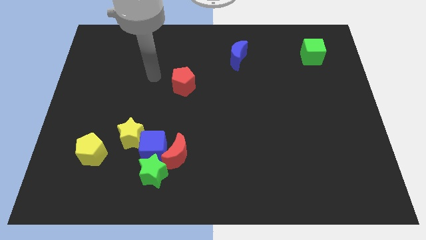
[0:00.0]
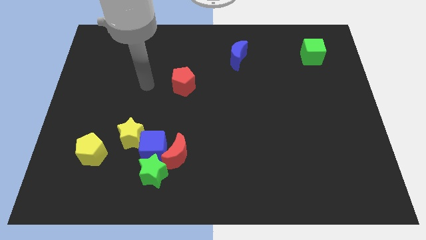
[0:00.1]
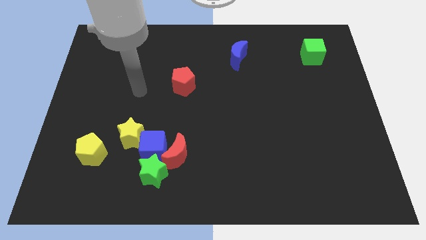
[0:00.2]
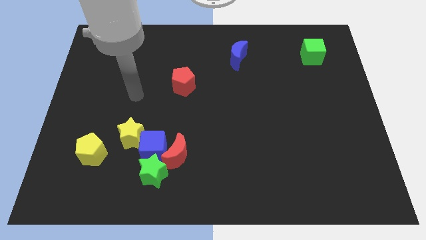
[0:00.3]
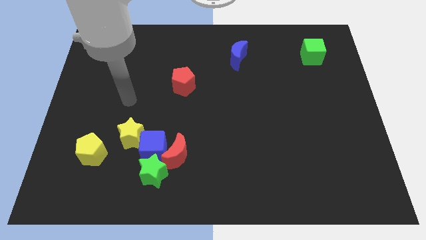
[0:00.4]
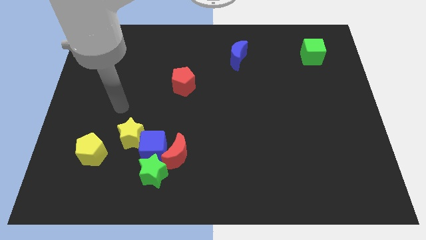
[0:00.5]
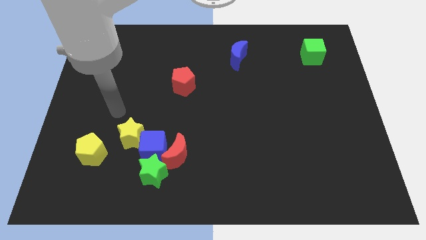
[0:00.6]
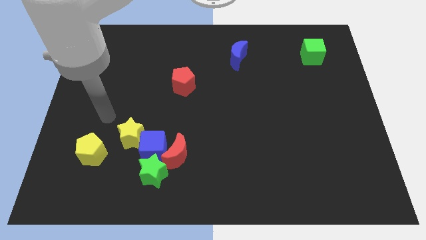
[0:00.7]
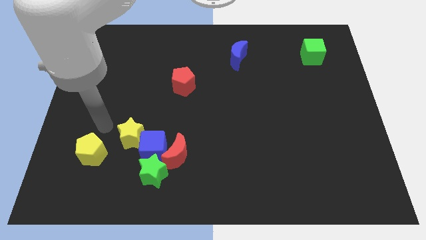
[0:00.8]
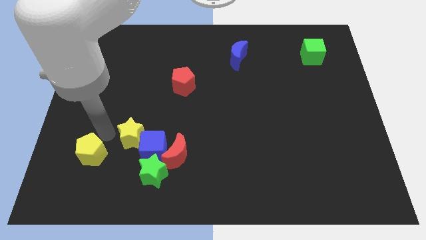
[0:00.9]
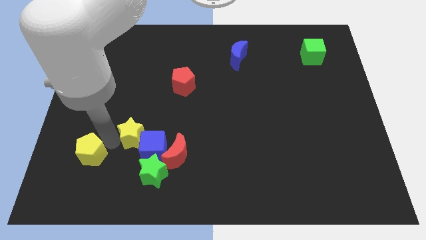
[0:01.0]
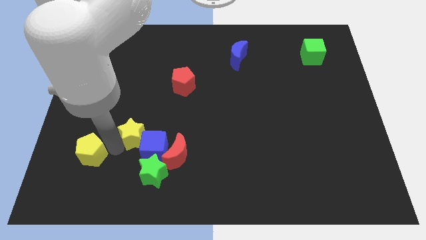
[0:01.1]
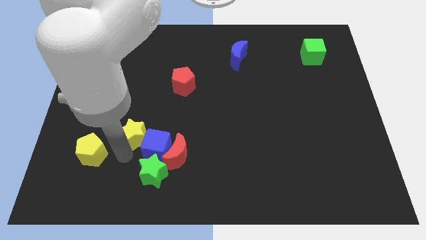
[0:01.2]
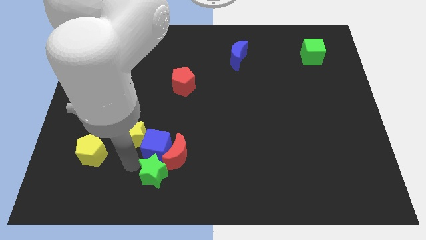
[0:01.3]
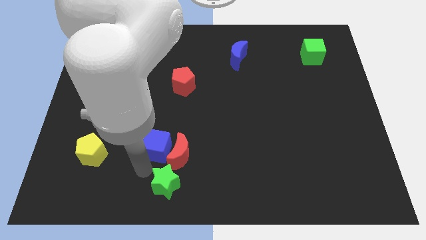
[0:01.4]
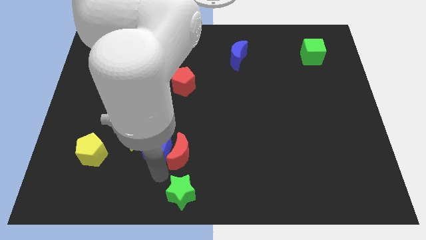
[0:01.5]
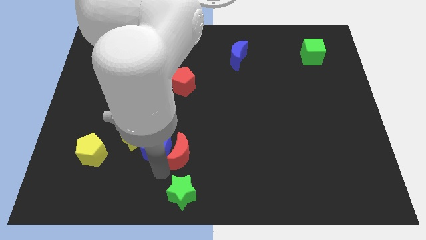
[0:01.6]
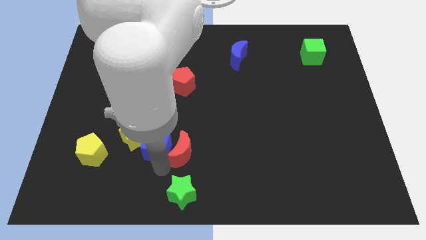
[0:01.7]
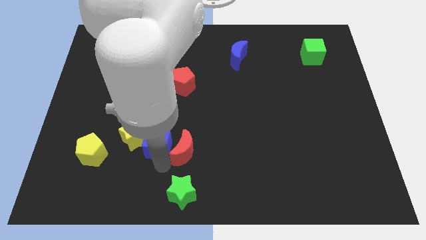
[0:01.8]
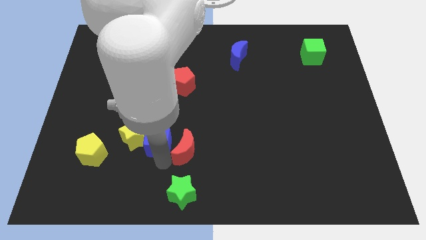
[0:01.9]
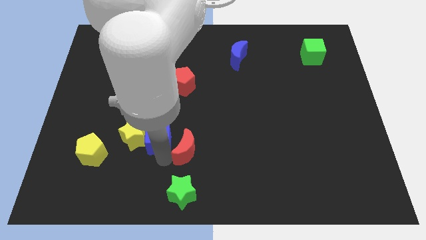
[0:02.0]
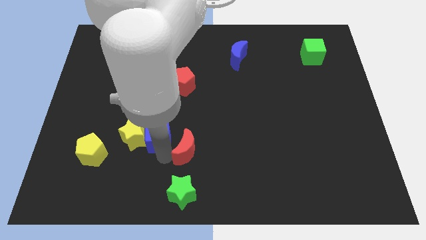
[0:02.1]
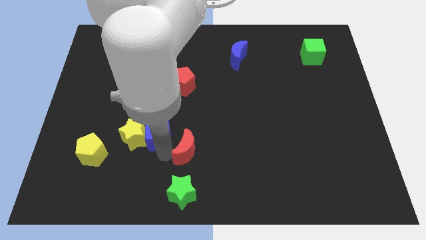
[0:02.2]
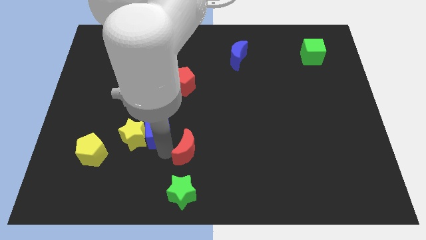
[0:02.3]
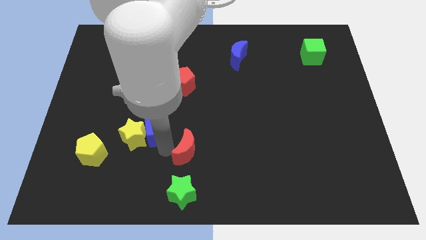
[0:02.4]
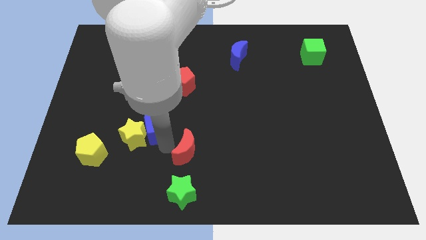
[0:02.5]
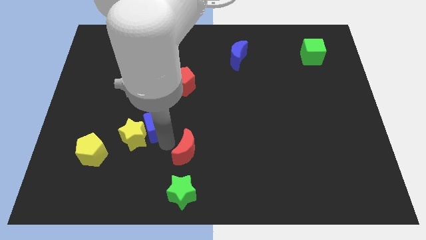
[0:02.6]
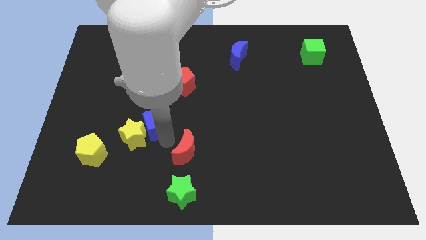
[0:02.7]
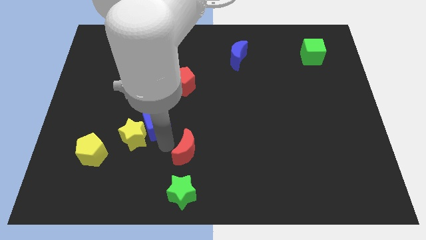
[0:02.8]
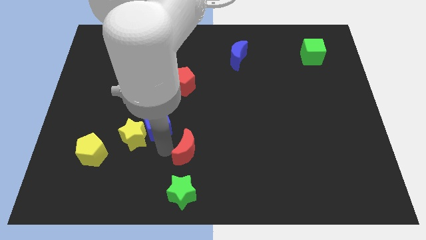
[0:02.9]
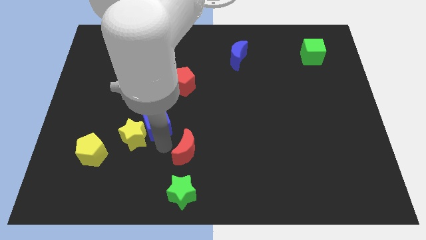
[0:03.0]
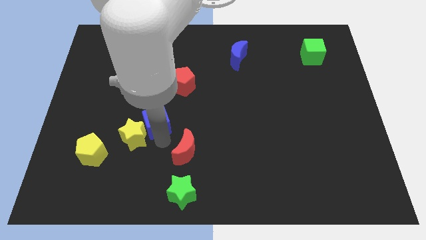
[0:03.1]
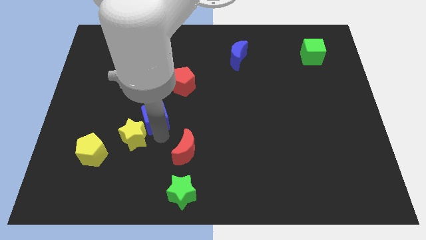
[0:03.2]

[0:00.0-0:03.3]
separate the blue cube from the red moon, yellow star, and green star

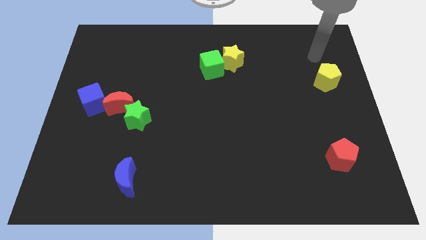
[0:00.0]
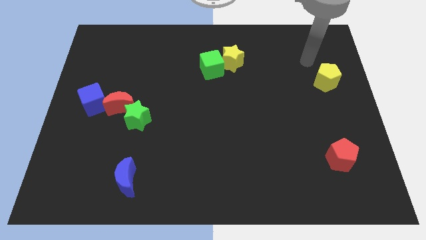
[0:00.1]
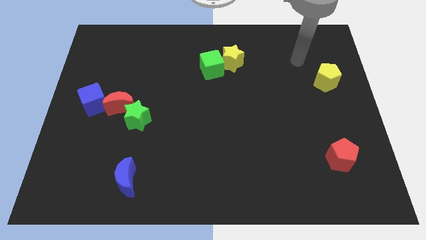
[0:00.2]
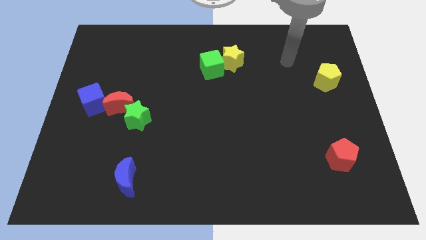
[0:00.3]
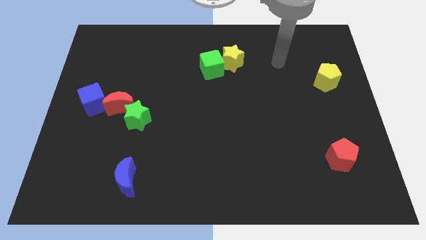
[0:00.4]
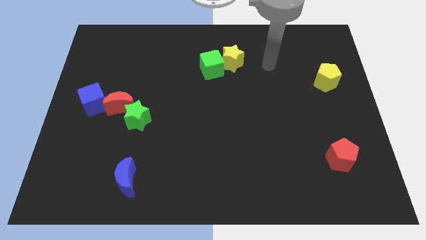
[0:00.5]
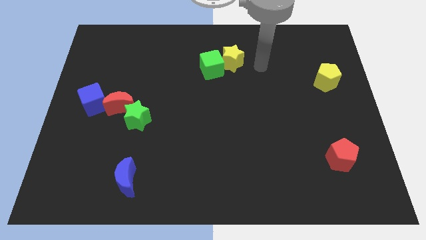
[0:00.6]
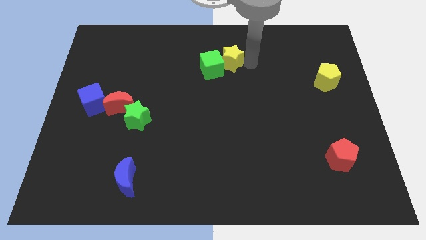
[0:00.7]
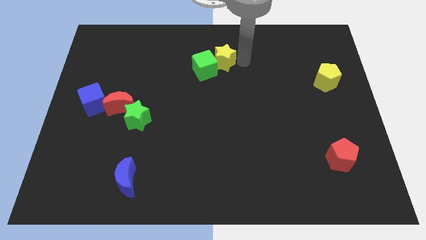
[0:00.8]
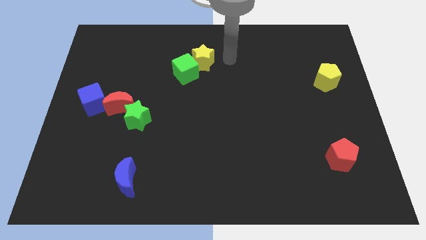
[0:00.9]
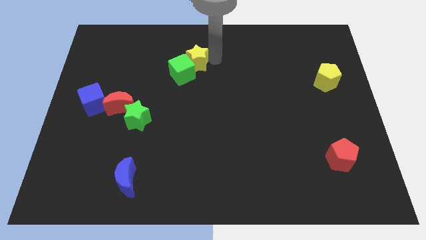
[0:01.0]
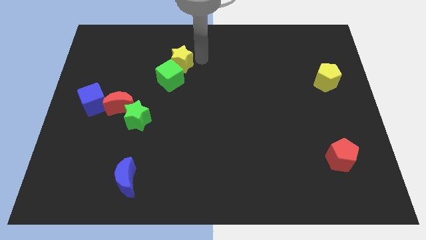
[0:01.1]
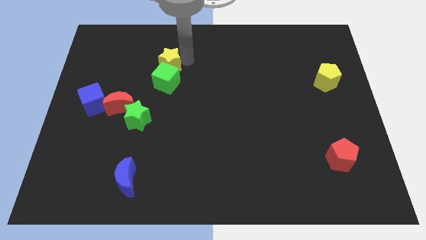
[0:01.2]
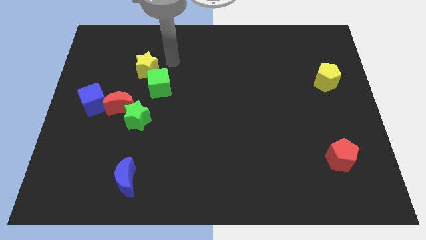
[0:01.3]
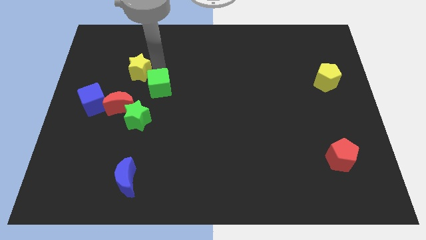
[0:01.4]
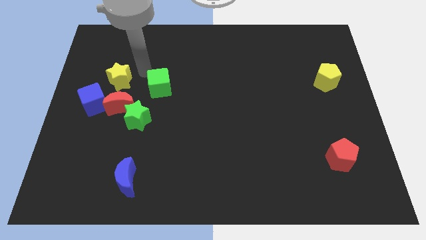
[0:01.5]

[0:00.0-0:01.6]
move the green cube away from the yellow star

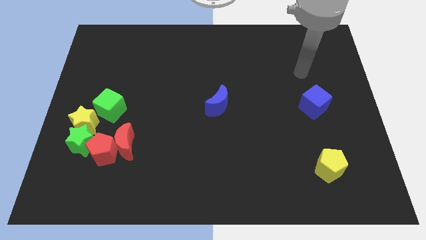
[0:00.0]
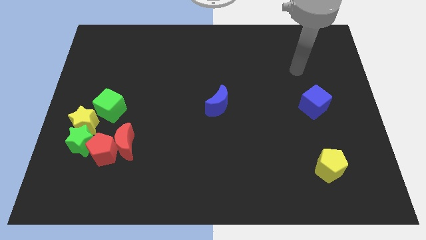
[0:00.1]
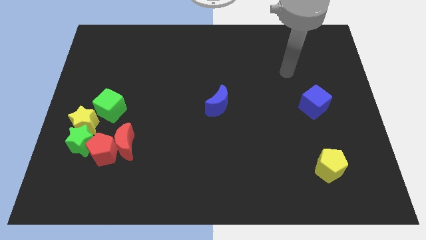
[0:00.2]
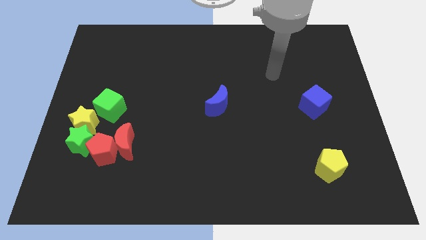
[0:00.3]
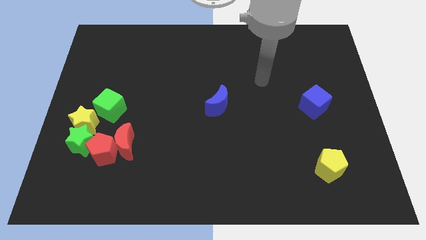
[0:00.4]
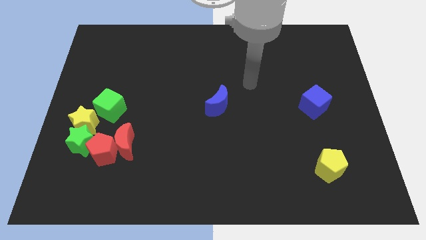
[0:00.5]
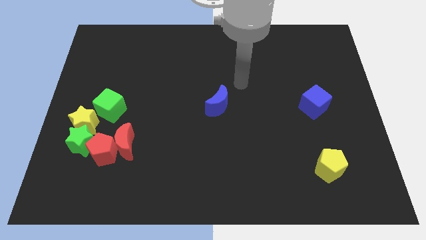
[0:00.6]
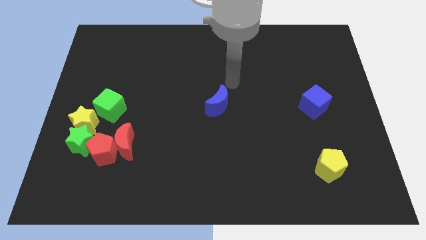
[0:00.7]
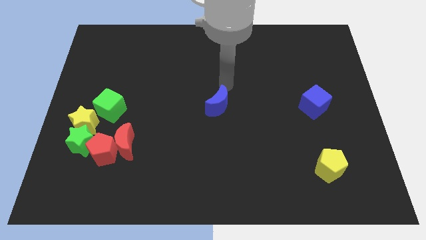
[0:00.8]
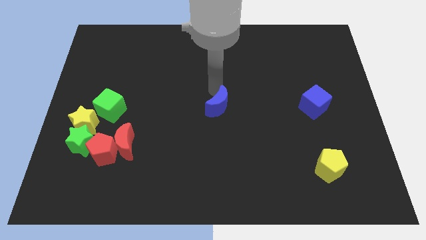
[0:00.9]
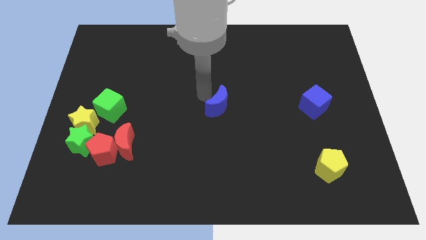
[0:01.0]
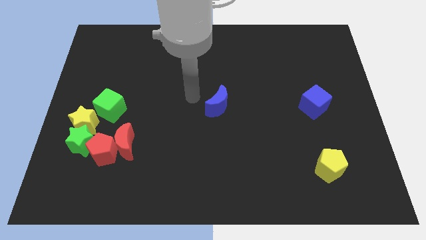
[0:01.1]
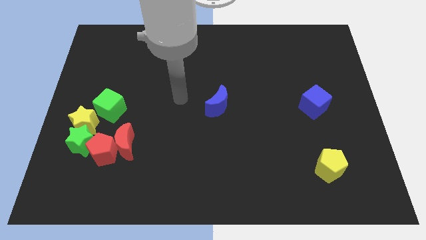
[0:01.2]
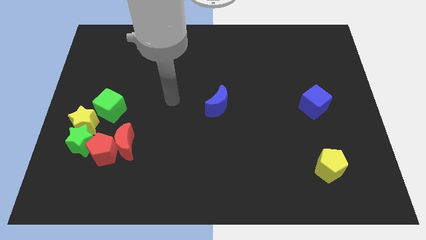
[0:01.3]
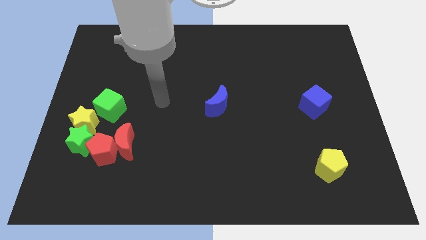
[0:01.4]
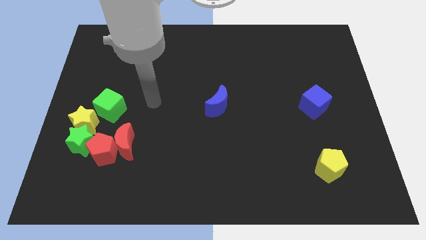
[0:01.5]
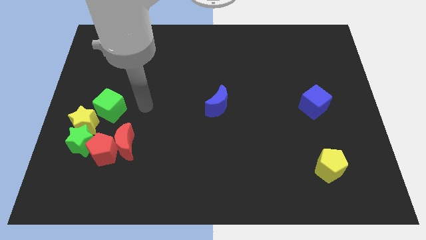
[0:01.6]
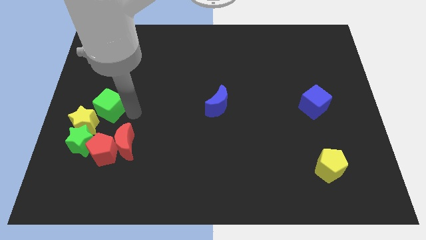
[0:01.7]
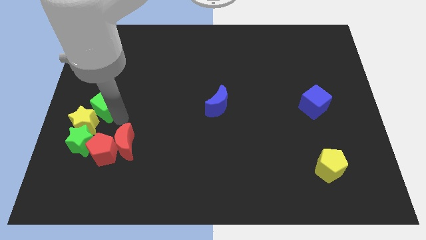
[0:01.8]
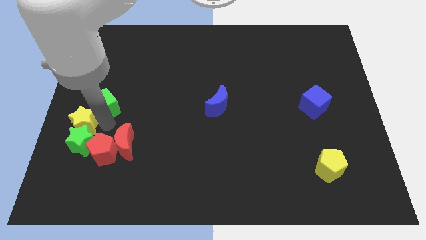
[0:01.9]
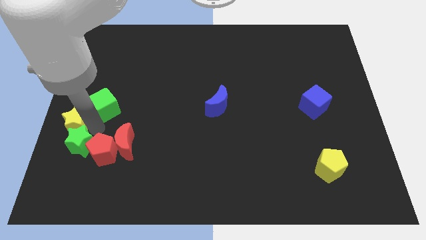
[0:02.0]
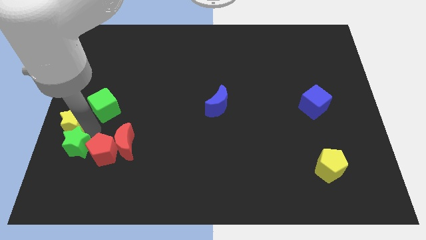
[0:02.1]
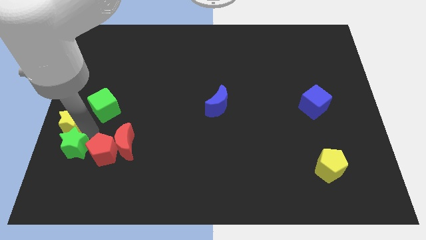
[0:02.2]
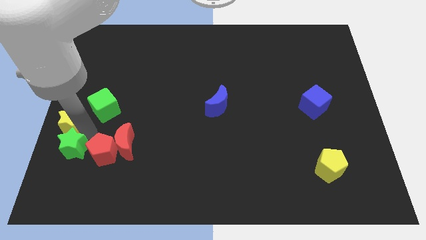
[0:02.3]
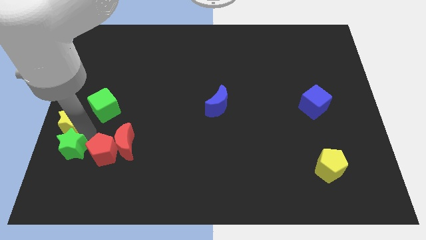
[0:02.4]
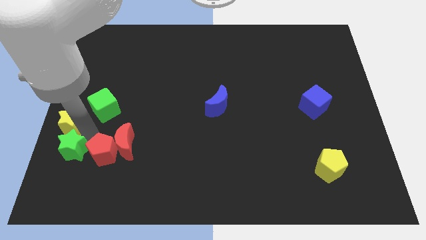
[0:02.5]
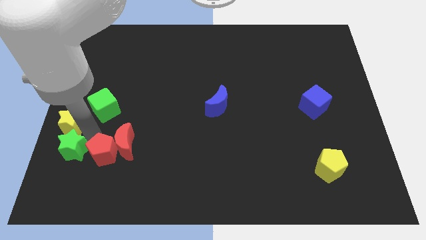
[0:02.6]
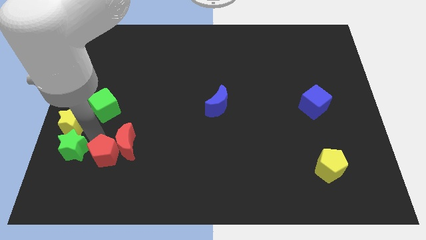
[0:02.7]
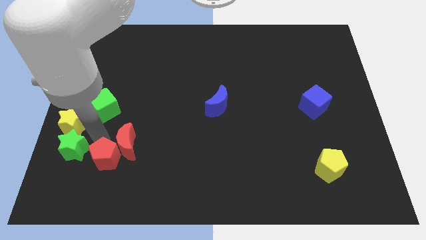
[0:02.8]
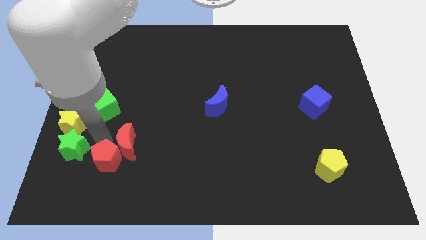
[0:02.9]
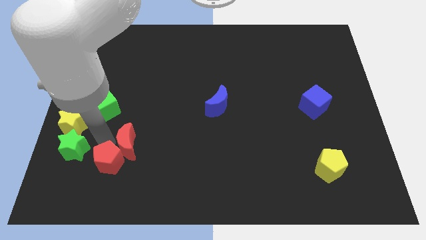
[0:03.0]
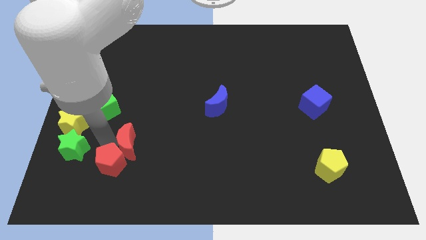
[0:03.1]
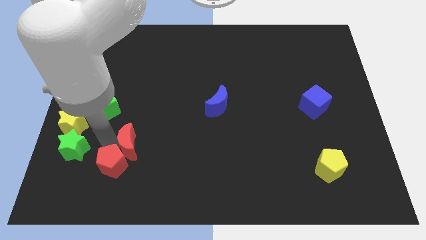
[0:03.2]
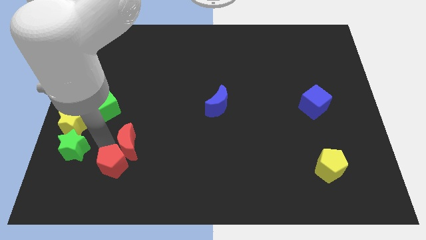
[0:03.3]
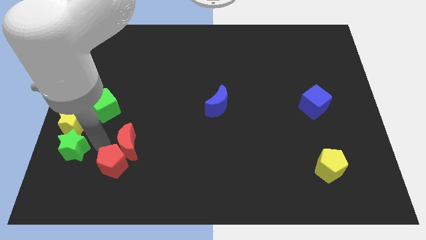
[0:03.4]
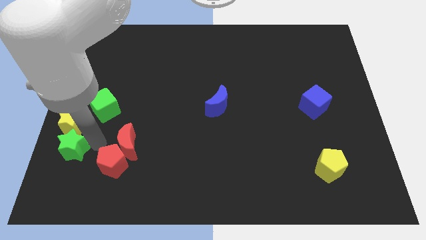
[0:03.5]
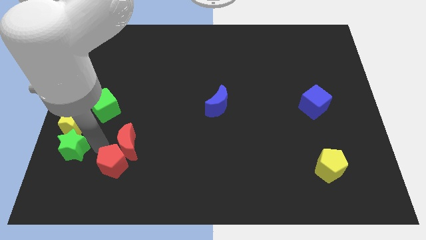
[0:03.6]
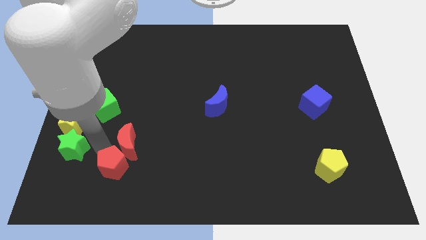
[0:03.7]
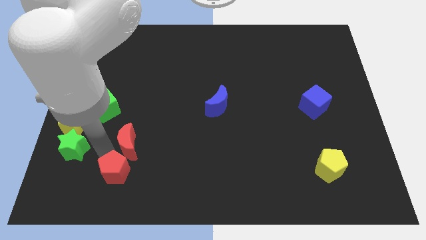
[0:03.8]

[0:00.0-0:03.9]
separate the red pentagon from the red moon, green star, and yellow star

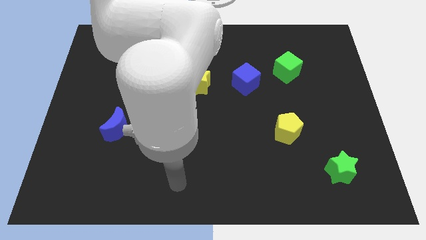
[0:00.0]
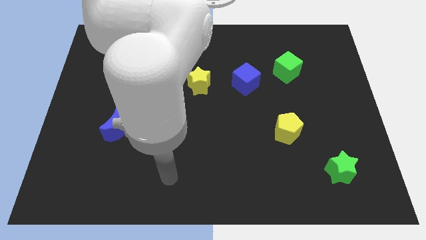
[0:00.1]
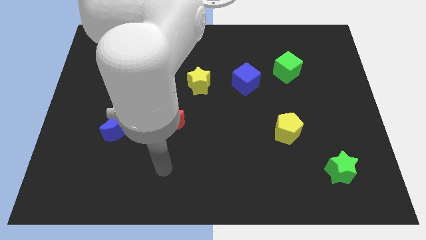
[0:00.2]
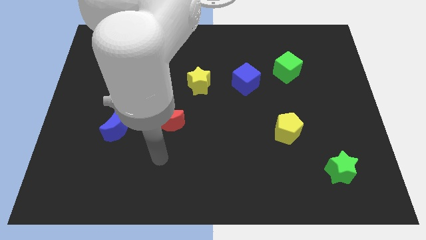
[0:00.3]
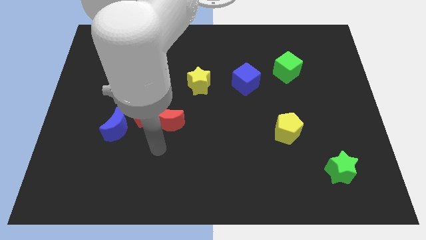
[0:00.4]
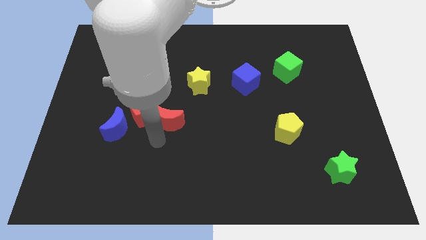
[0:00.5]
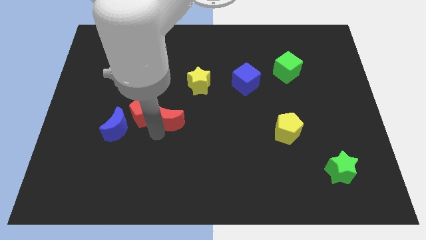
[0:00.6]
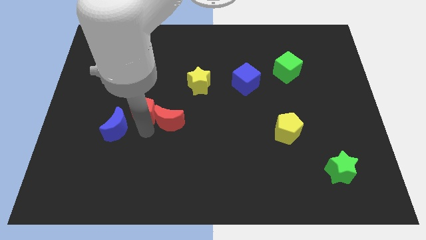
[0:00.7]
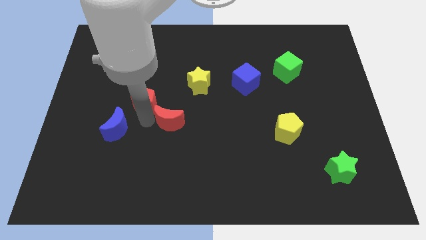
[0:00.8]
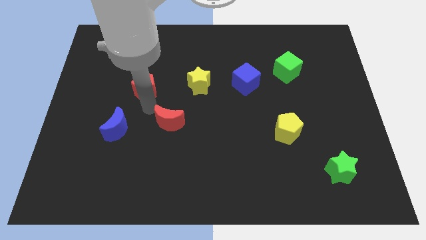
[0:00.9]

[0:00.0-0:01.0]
pull the red moon apart from the red pentagon
